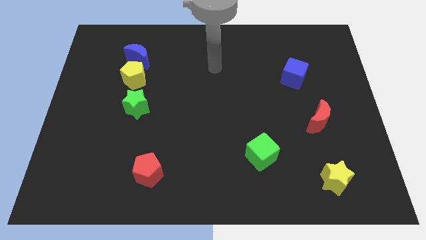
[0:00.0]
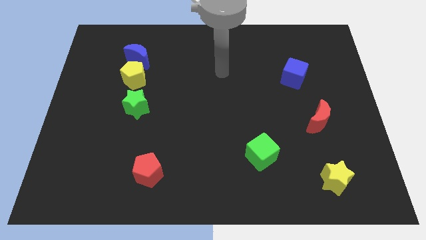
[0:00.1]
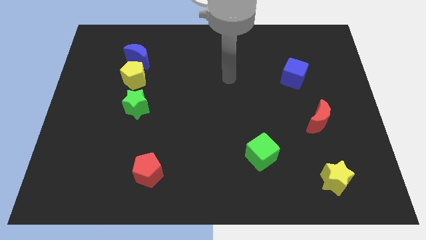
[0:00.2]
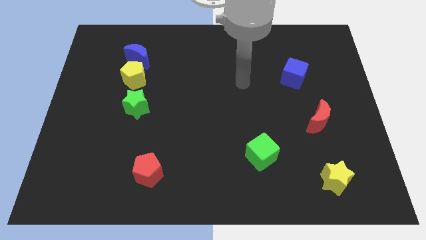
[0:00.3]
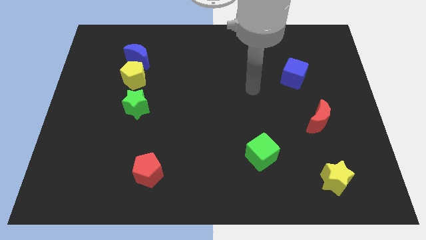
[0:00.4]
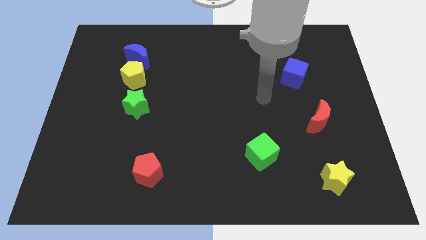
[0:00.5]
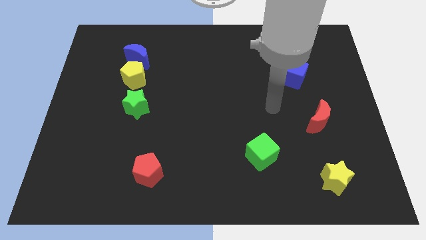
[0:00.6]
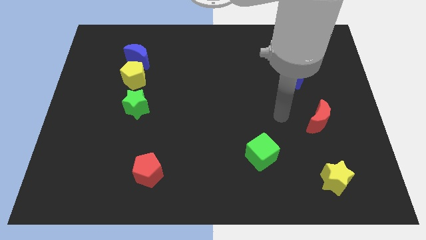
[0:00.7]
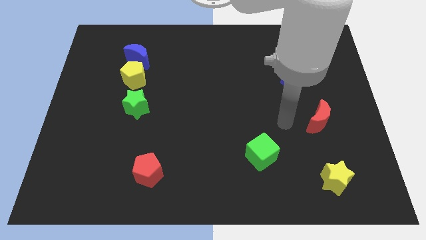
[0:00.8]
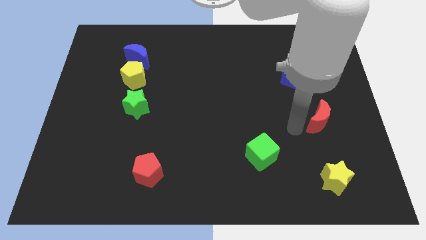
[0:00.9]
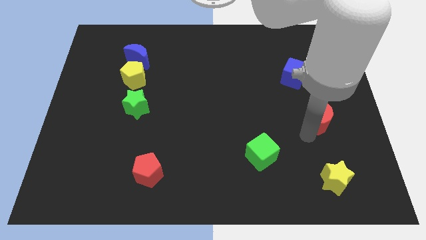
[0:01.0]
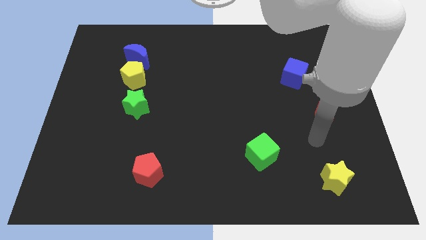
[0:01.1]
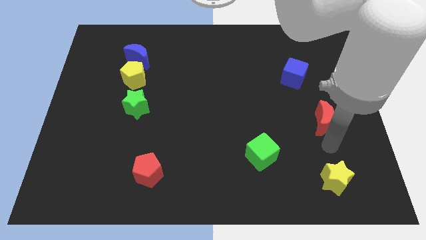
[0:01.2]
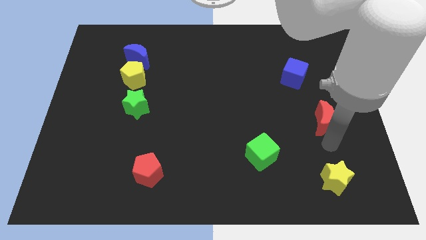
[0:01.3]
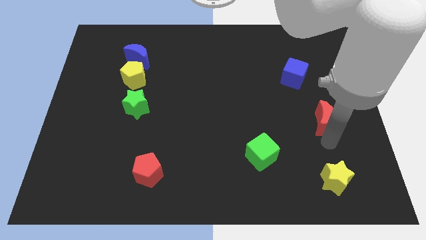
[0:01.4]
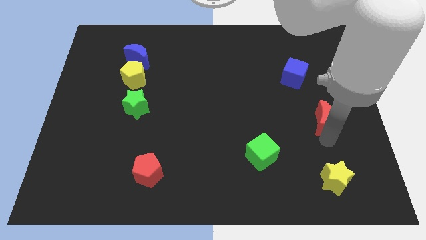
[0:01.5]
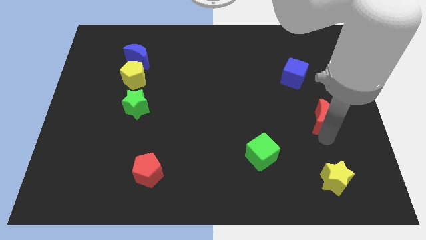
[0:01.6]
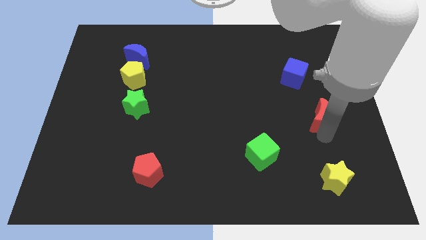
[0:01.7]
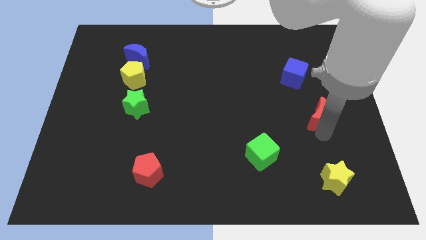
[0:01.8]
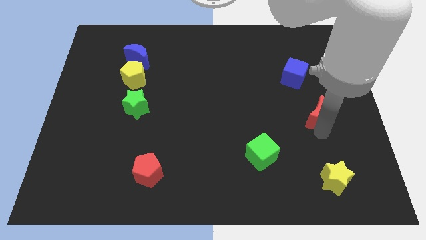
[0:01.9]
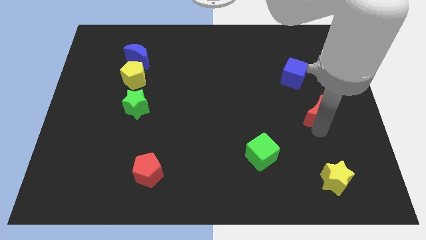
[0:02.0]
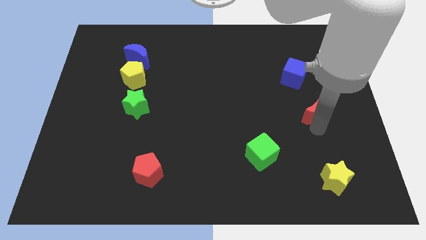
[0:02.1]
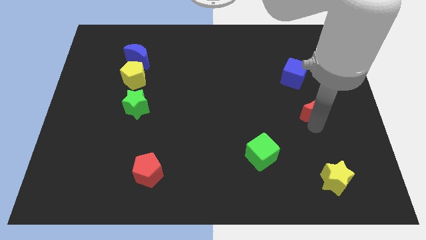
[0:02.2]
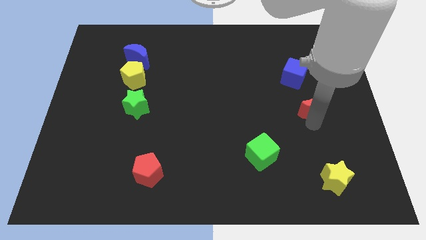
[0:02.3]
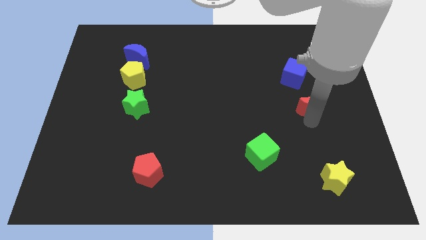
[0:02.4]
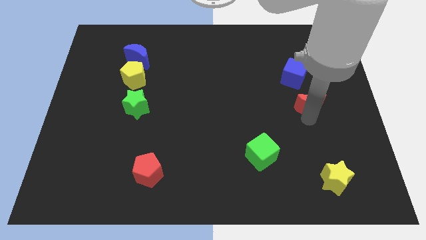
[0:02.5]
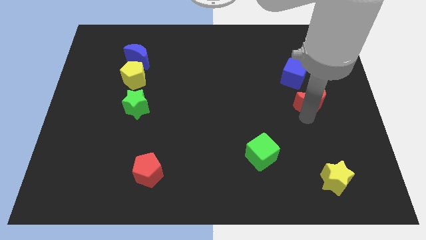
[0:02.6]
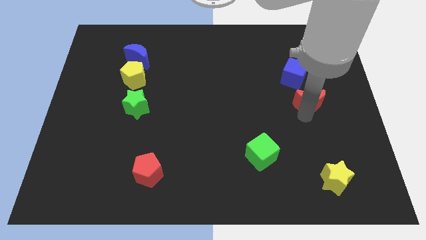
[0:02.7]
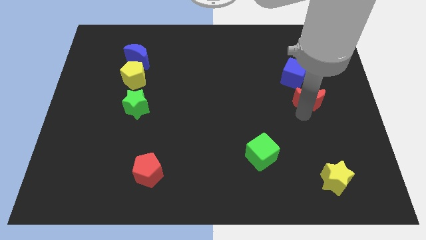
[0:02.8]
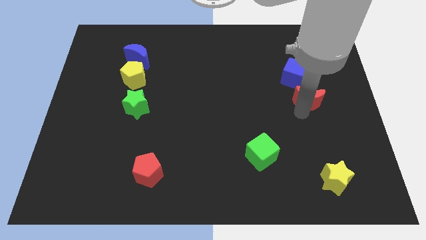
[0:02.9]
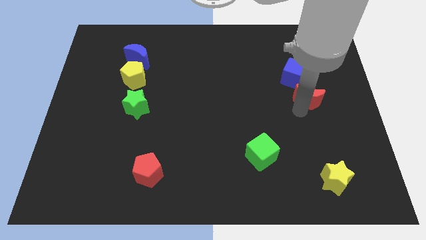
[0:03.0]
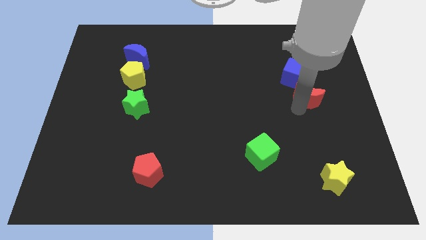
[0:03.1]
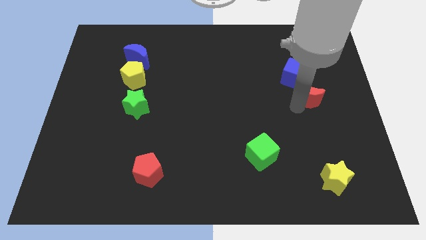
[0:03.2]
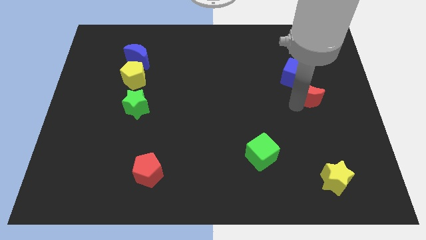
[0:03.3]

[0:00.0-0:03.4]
move the red moon a little bit up

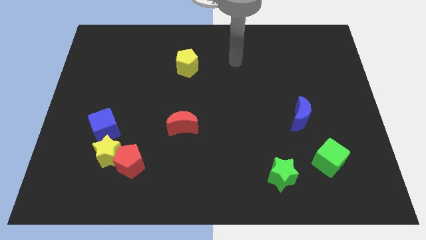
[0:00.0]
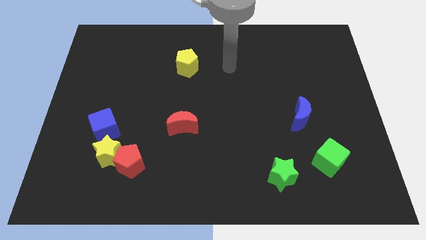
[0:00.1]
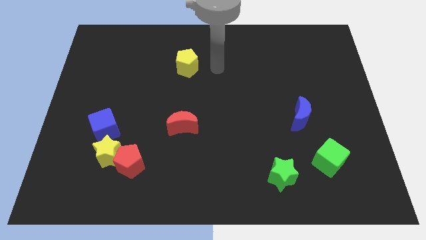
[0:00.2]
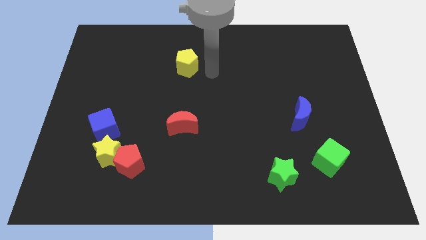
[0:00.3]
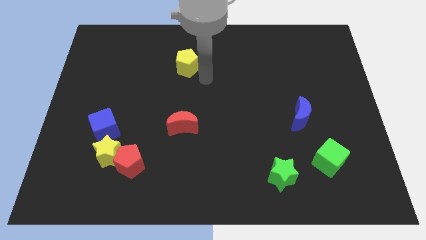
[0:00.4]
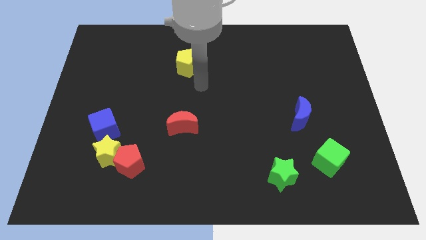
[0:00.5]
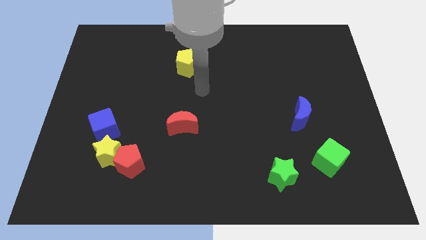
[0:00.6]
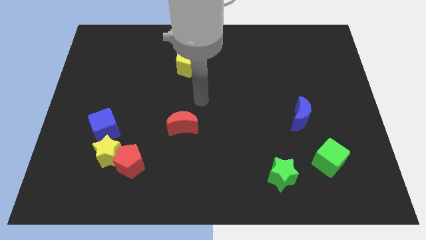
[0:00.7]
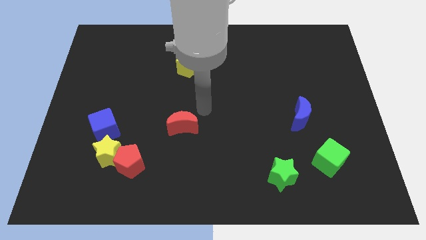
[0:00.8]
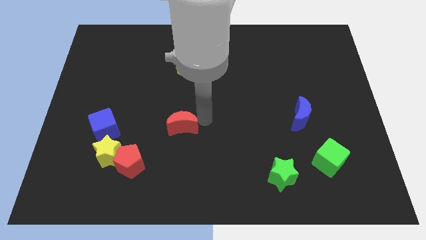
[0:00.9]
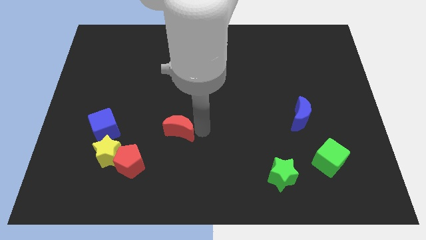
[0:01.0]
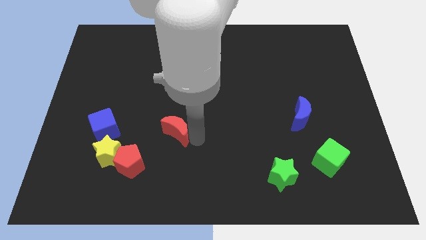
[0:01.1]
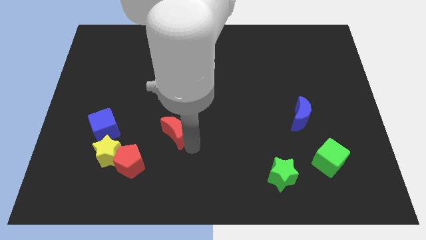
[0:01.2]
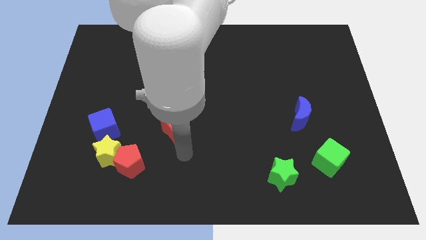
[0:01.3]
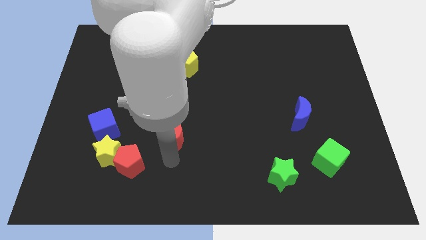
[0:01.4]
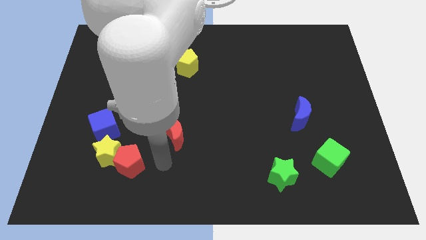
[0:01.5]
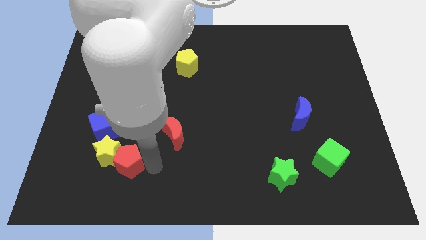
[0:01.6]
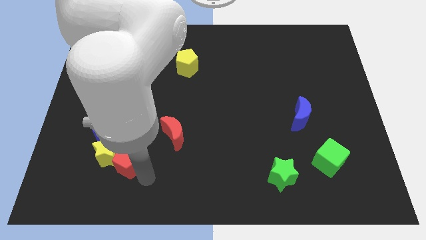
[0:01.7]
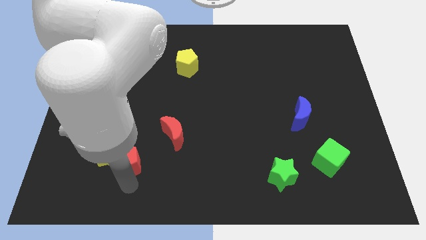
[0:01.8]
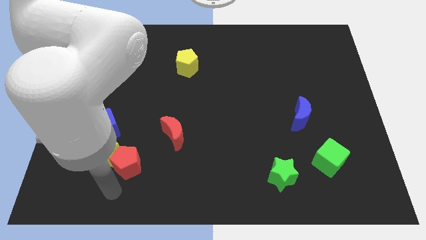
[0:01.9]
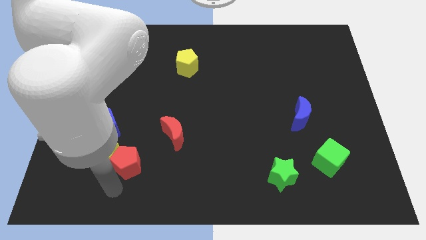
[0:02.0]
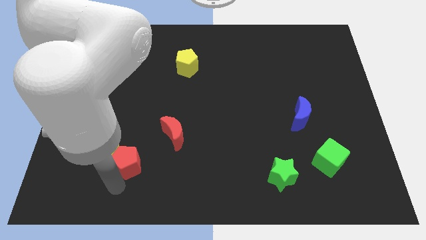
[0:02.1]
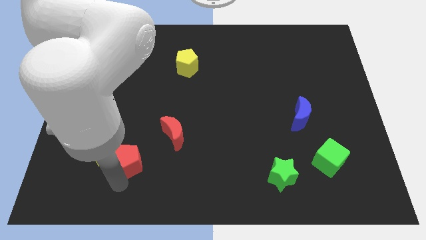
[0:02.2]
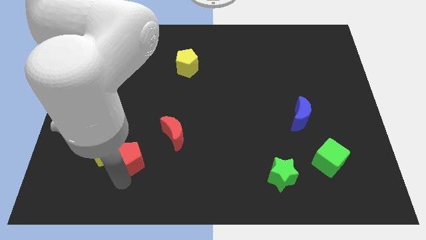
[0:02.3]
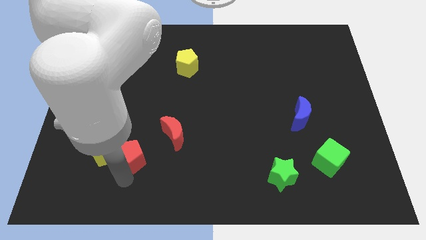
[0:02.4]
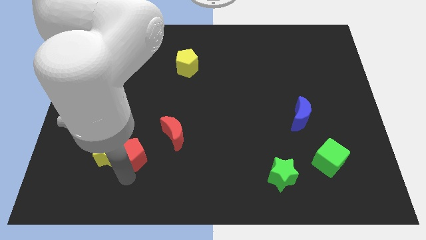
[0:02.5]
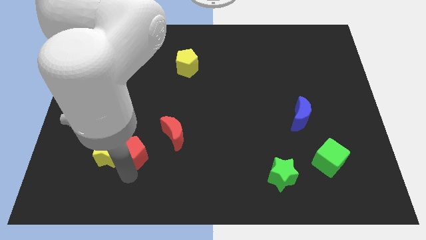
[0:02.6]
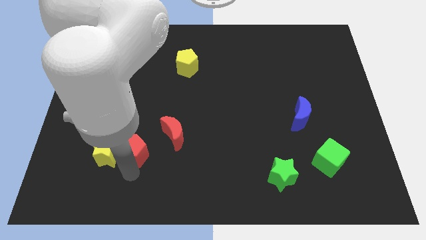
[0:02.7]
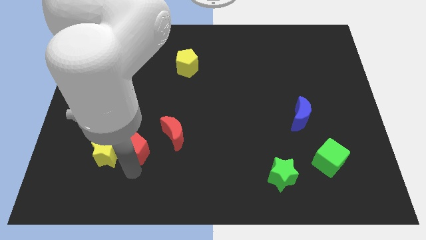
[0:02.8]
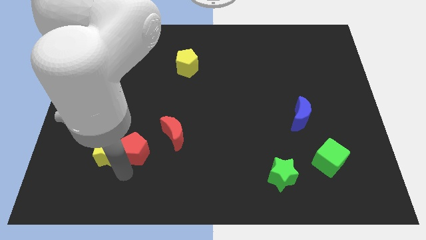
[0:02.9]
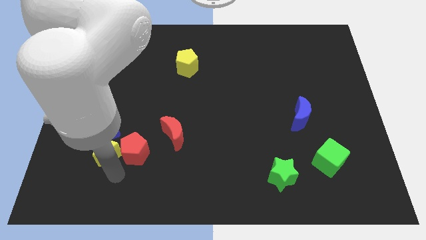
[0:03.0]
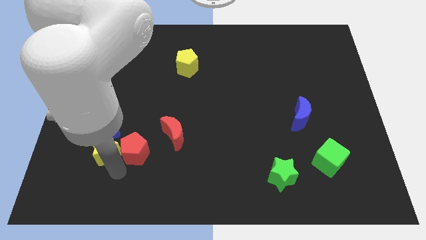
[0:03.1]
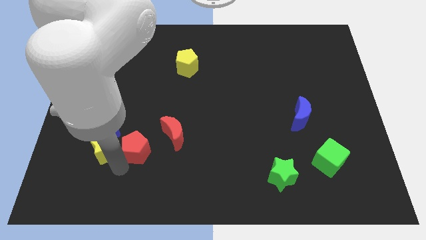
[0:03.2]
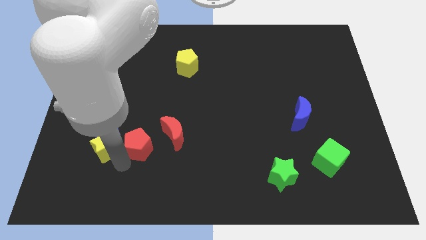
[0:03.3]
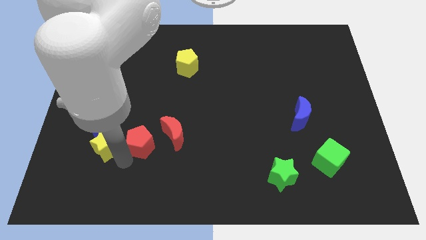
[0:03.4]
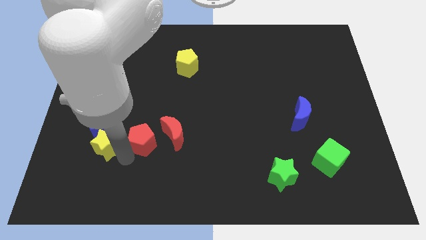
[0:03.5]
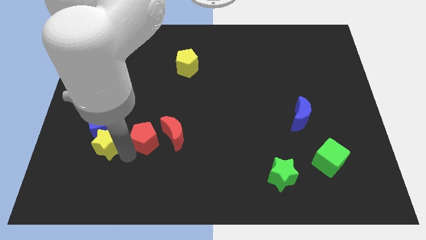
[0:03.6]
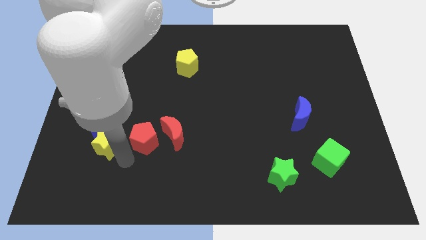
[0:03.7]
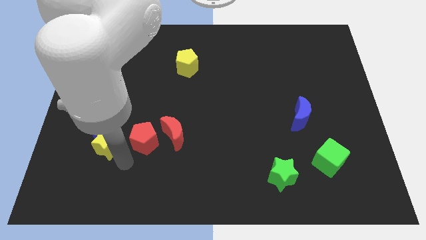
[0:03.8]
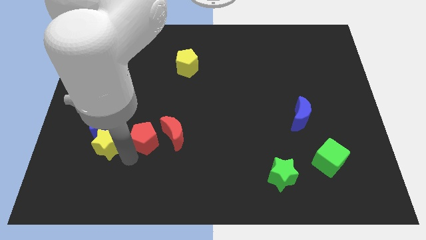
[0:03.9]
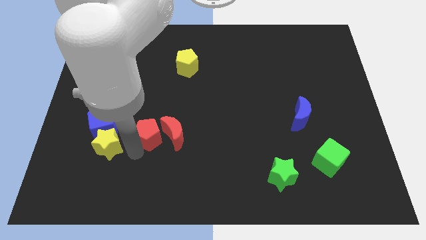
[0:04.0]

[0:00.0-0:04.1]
slide the red pentagon slightly upwards and to the right

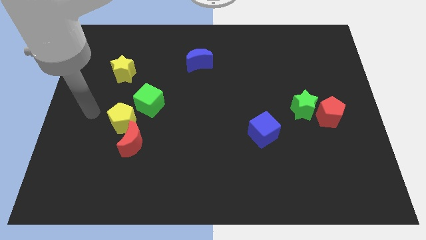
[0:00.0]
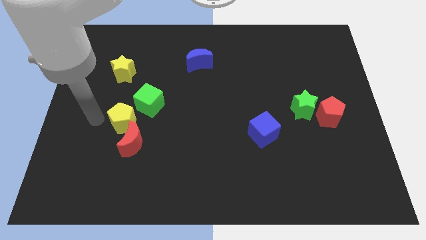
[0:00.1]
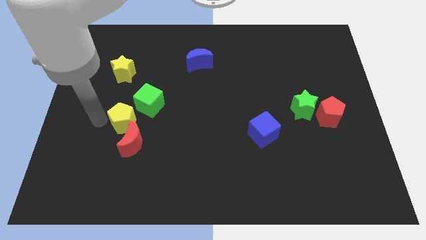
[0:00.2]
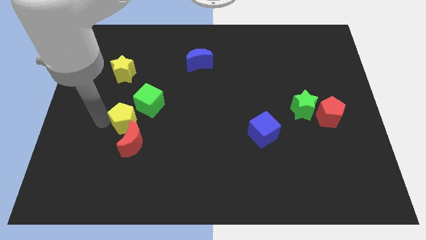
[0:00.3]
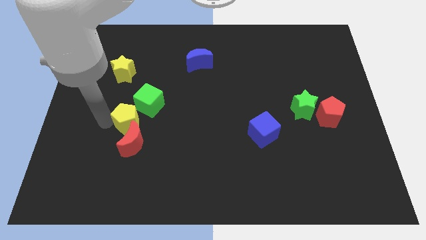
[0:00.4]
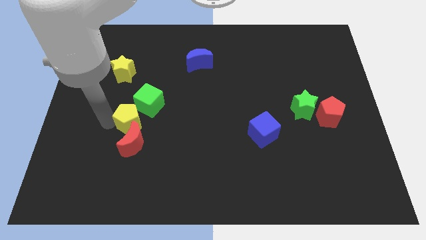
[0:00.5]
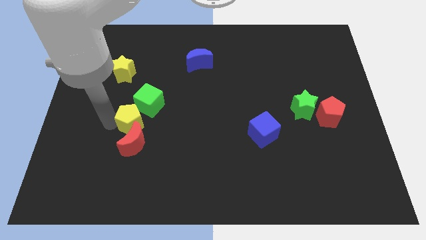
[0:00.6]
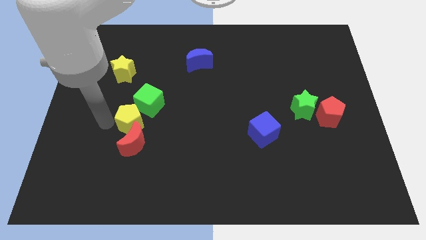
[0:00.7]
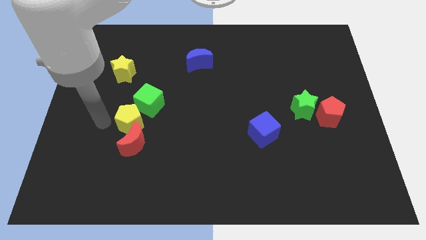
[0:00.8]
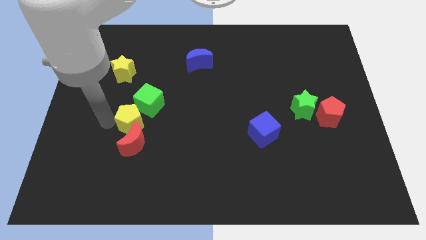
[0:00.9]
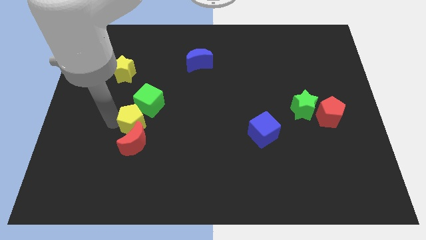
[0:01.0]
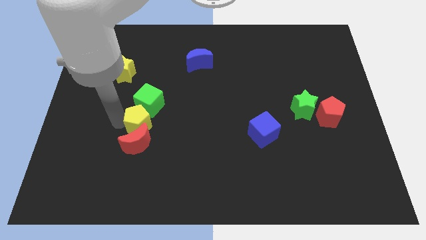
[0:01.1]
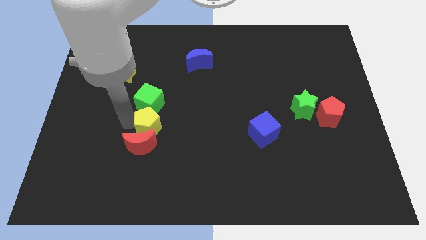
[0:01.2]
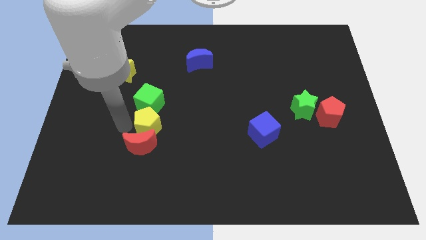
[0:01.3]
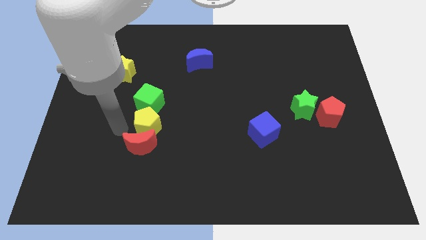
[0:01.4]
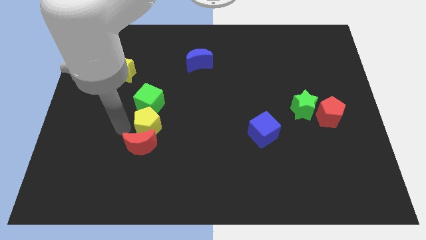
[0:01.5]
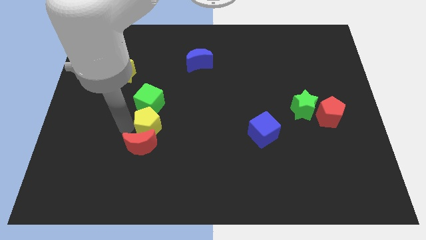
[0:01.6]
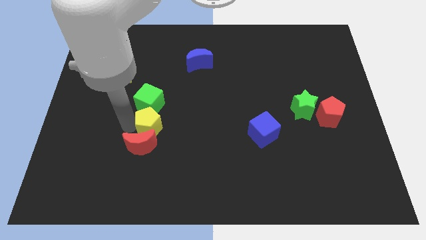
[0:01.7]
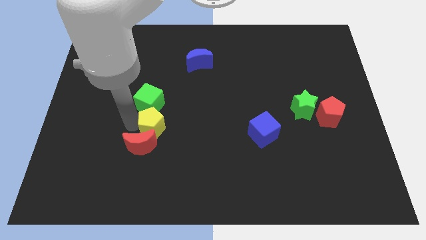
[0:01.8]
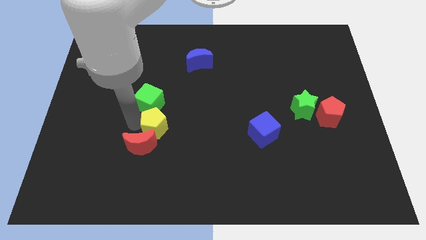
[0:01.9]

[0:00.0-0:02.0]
slightly slide the yellow pentagon right
